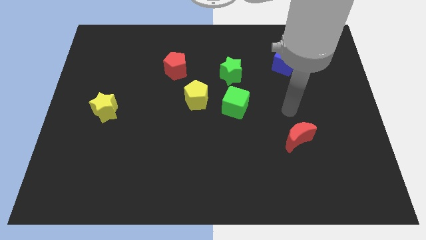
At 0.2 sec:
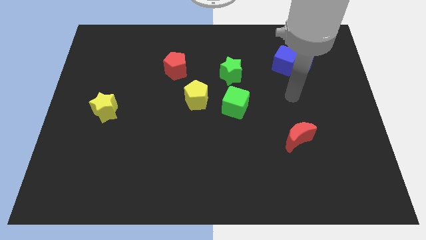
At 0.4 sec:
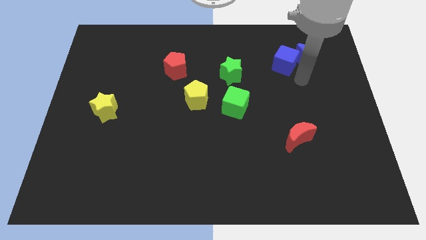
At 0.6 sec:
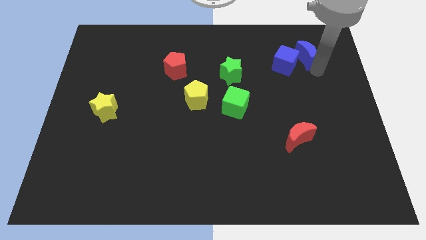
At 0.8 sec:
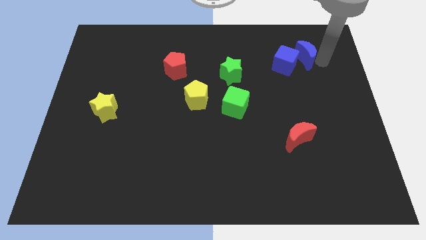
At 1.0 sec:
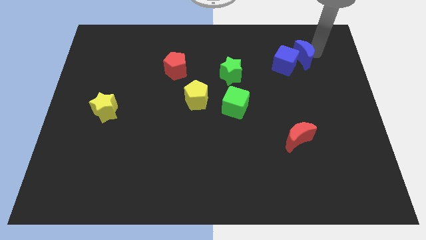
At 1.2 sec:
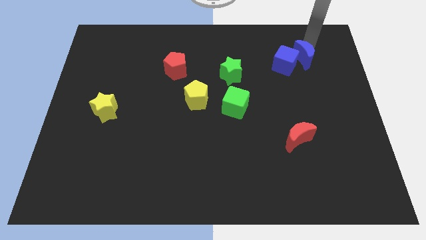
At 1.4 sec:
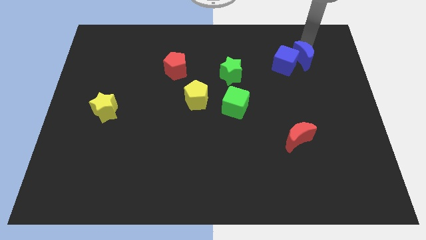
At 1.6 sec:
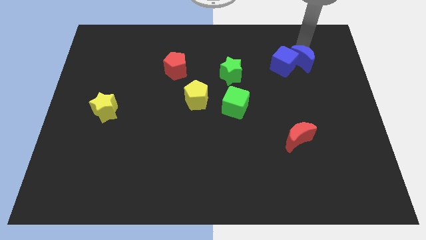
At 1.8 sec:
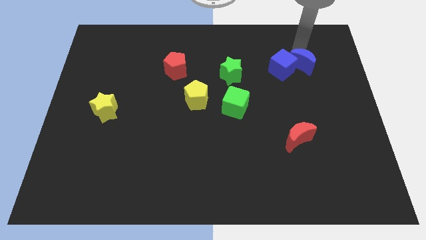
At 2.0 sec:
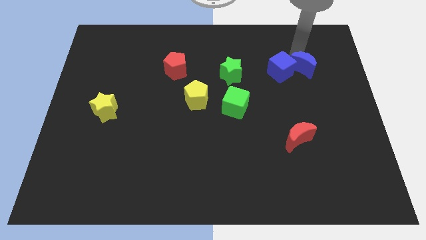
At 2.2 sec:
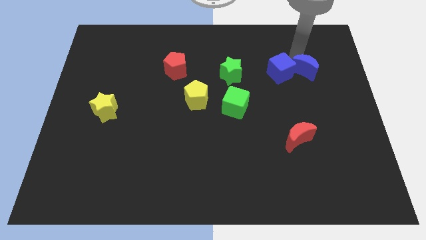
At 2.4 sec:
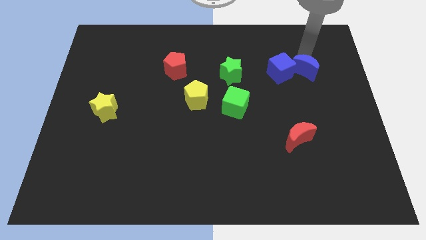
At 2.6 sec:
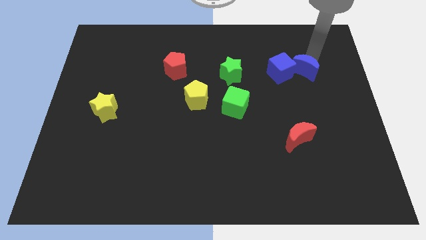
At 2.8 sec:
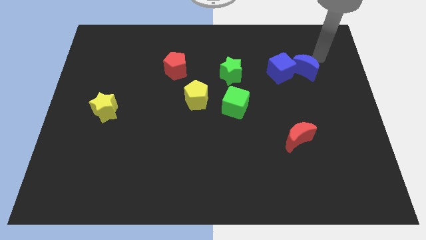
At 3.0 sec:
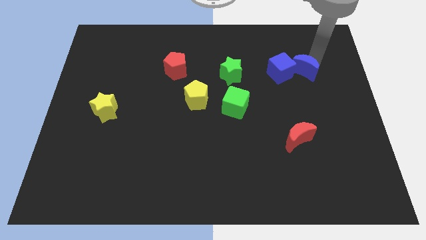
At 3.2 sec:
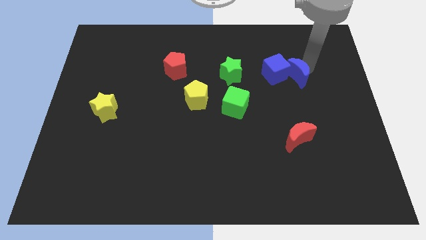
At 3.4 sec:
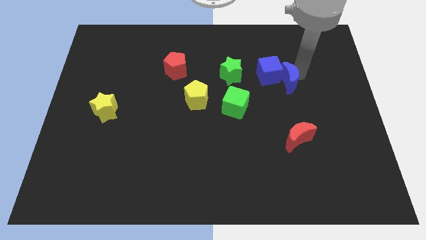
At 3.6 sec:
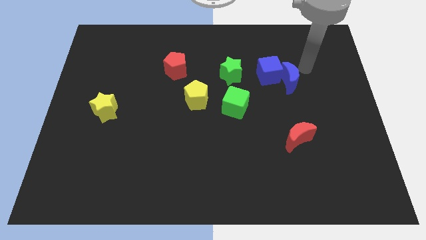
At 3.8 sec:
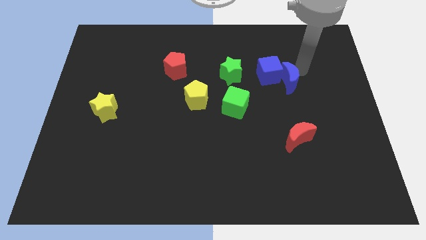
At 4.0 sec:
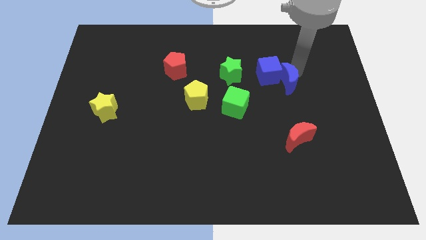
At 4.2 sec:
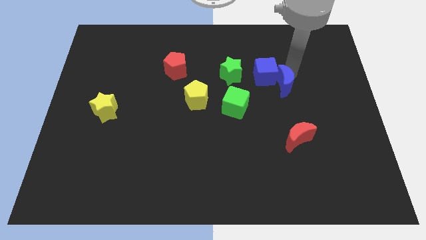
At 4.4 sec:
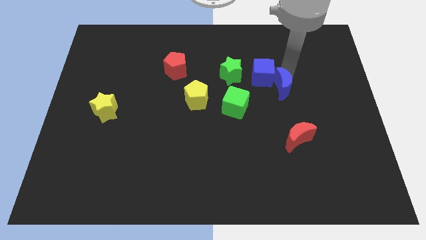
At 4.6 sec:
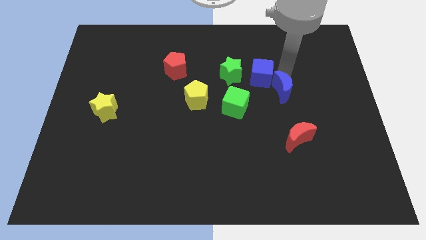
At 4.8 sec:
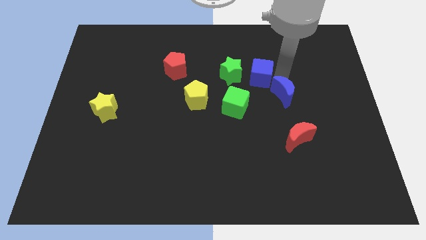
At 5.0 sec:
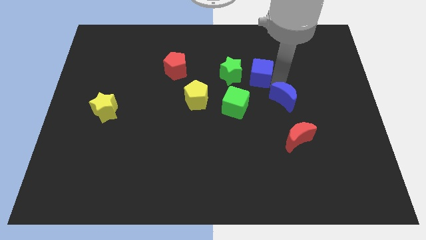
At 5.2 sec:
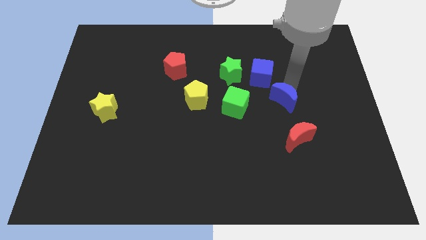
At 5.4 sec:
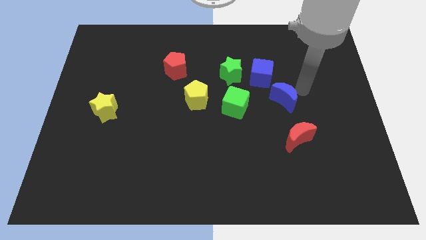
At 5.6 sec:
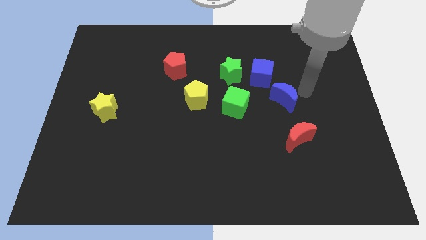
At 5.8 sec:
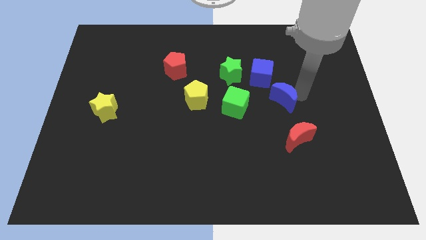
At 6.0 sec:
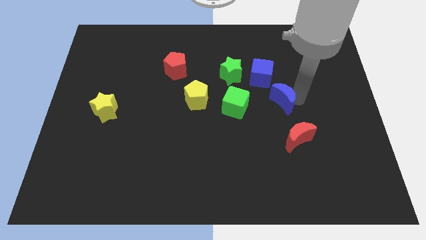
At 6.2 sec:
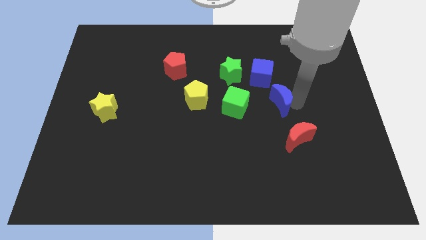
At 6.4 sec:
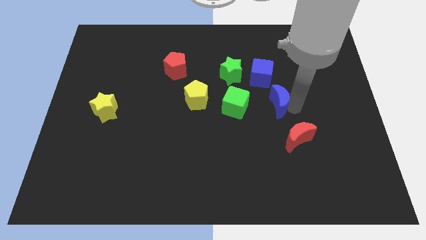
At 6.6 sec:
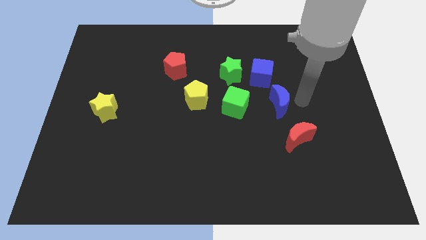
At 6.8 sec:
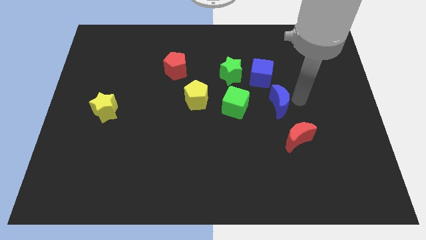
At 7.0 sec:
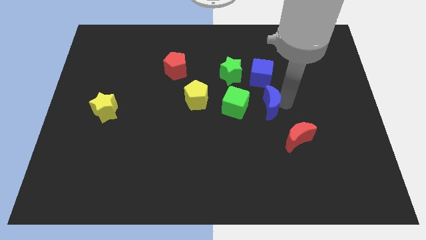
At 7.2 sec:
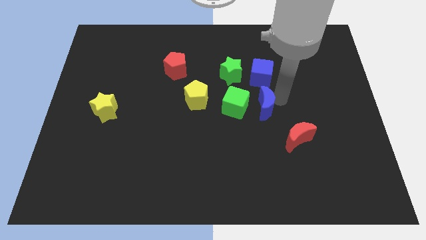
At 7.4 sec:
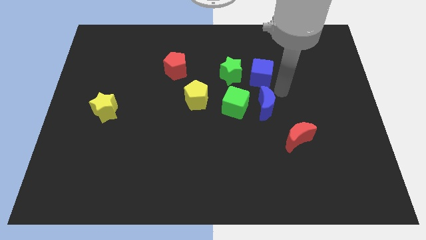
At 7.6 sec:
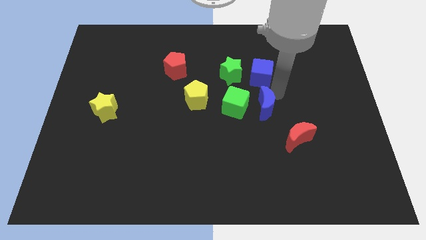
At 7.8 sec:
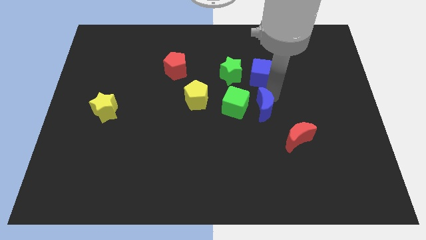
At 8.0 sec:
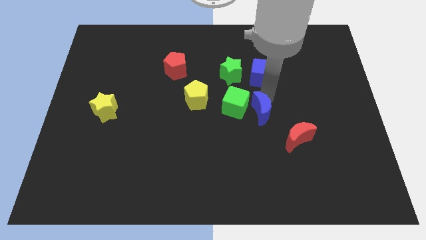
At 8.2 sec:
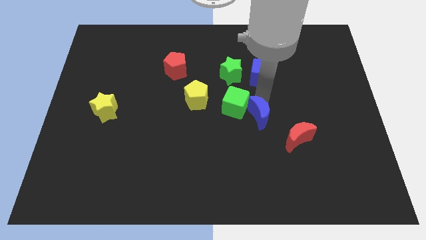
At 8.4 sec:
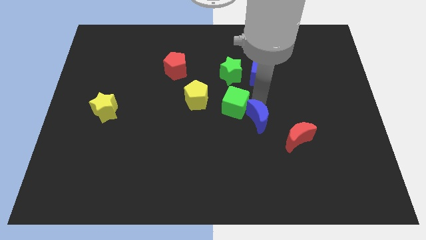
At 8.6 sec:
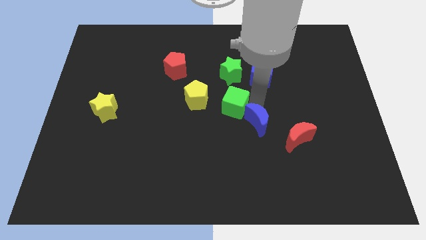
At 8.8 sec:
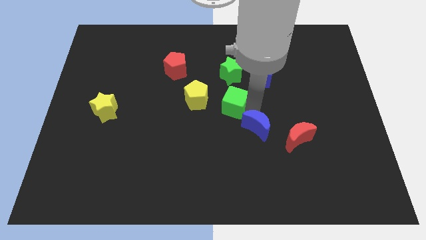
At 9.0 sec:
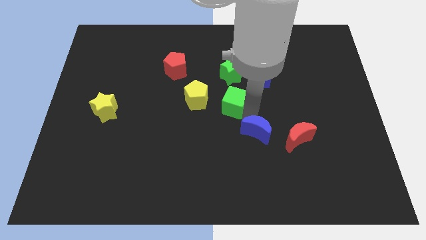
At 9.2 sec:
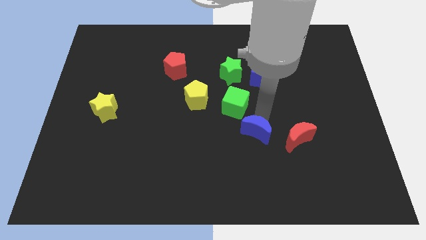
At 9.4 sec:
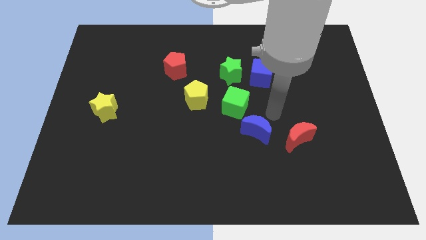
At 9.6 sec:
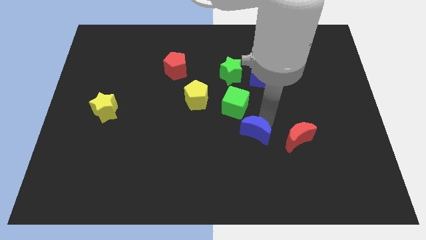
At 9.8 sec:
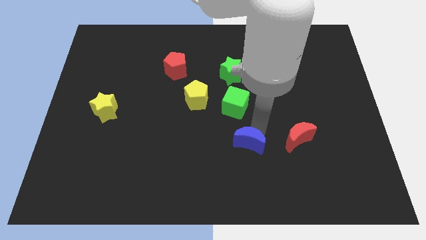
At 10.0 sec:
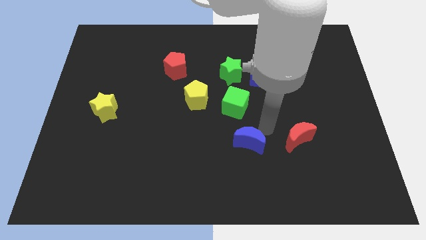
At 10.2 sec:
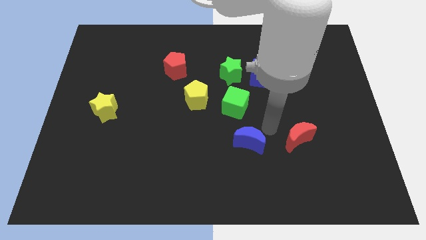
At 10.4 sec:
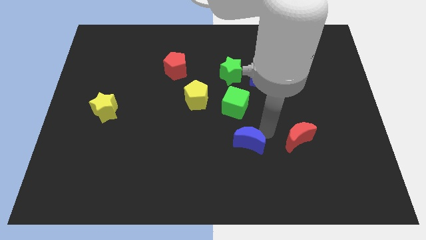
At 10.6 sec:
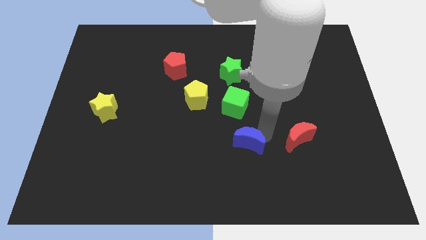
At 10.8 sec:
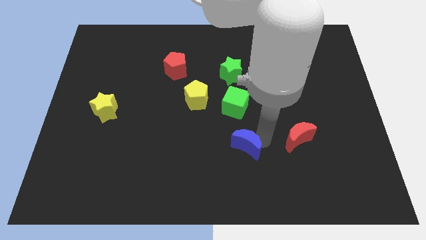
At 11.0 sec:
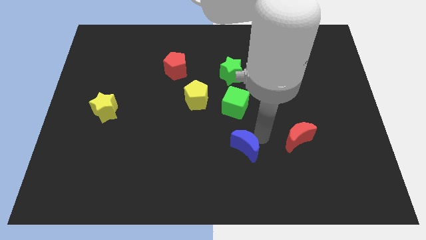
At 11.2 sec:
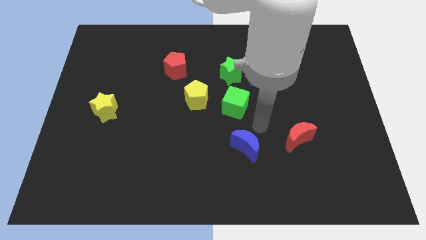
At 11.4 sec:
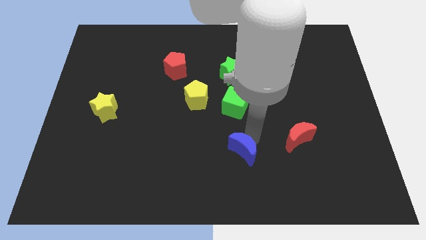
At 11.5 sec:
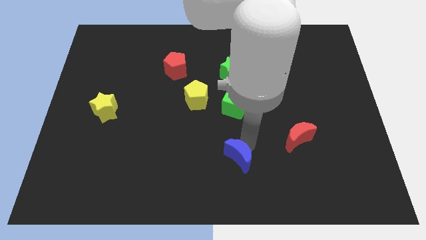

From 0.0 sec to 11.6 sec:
move the blue moon to the bottom side
